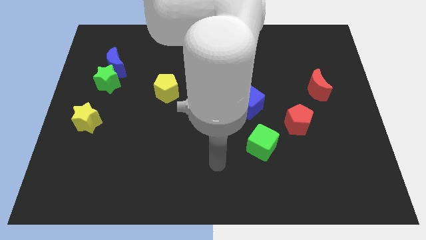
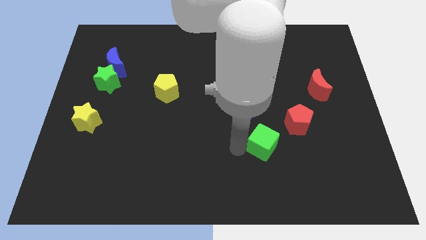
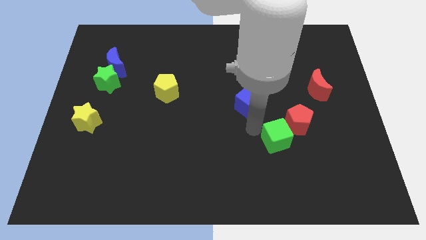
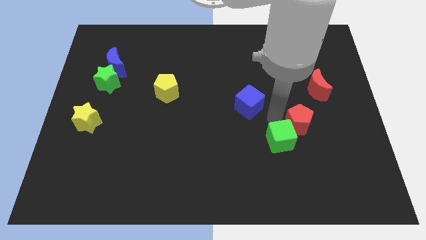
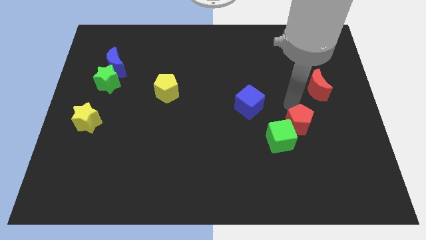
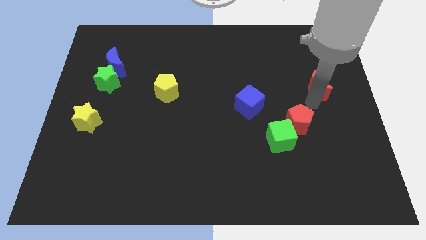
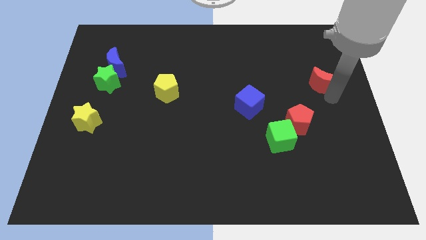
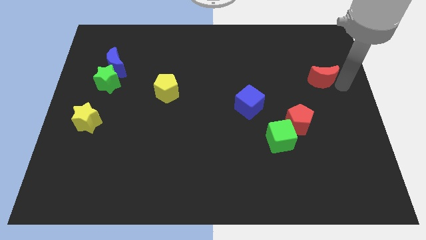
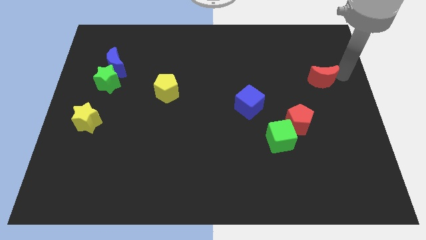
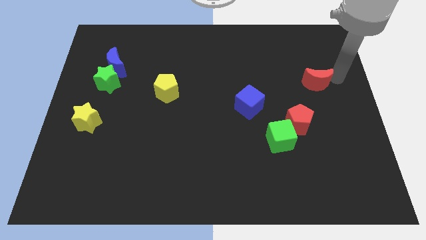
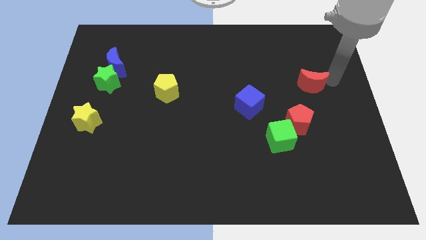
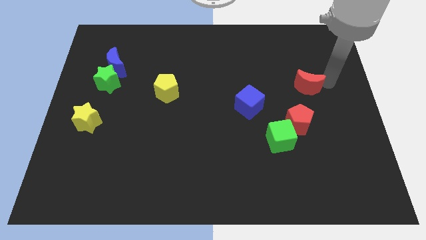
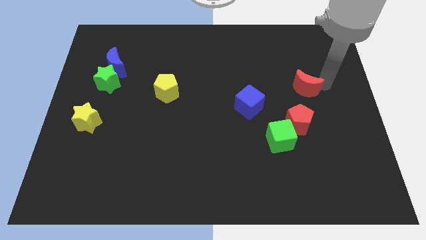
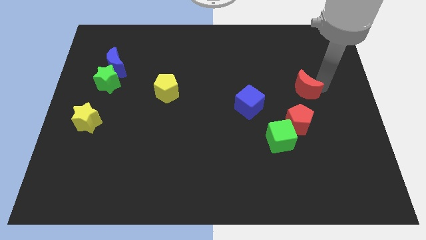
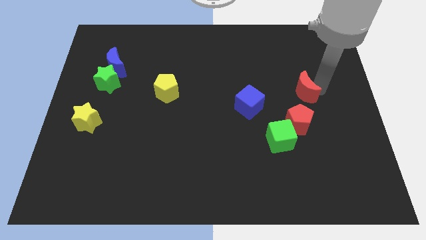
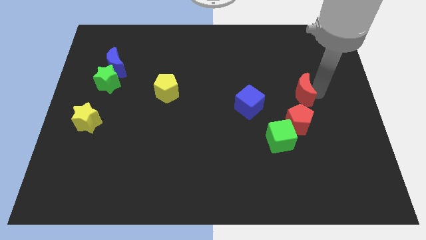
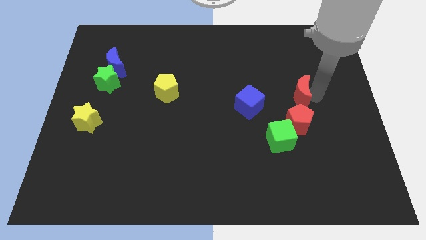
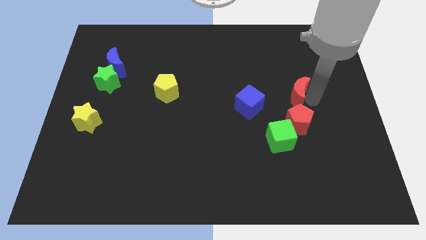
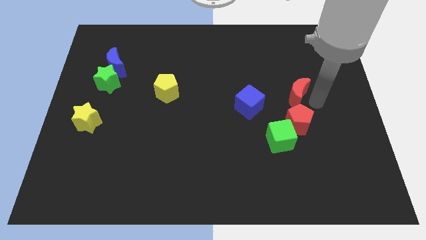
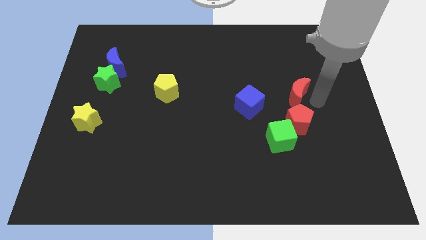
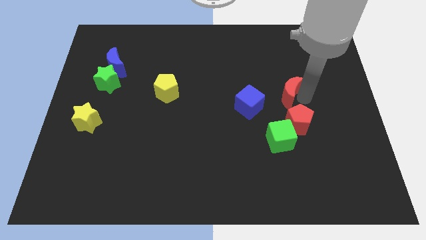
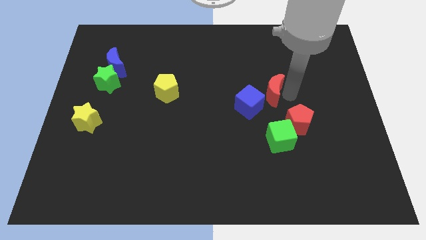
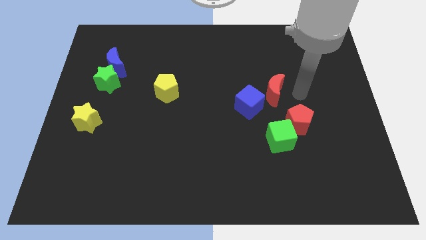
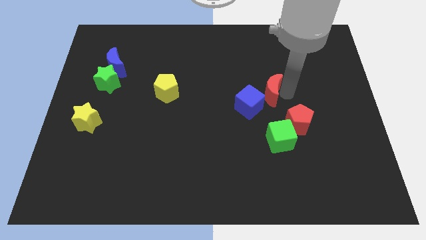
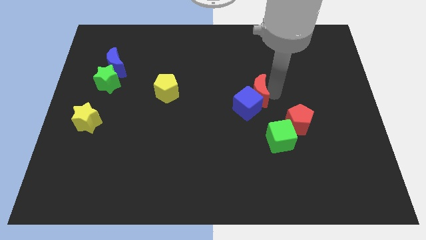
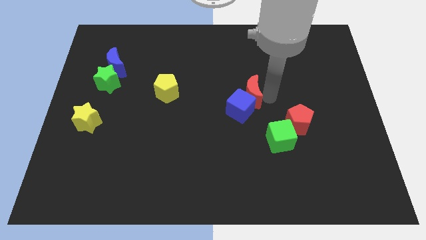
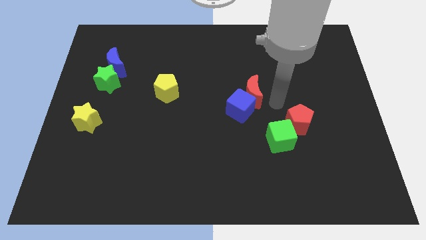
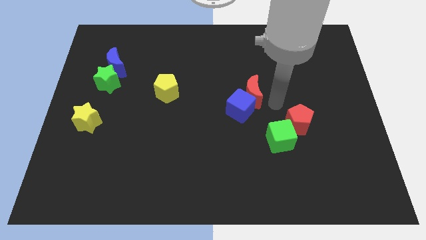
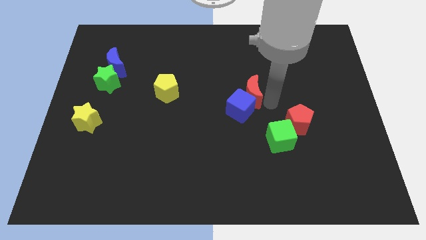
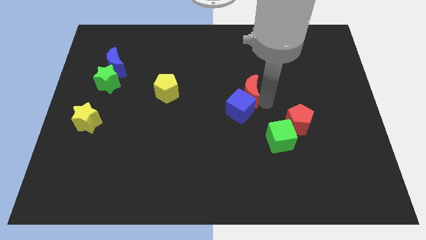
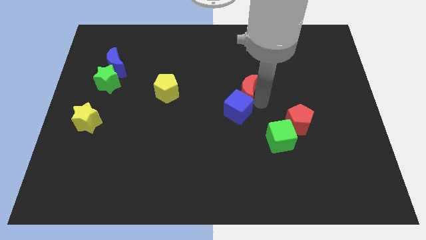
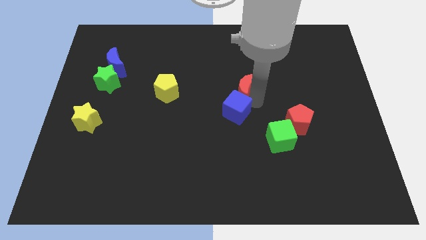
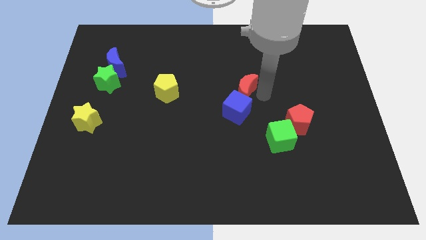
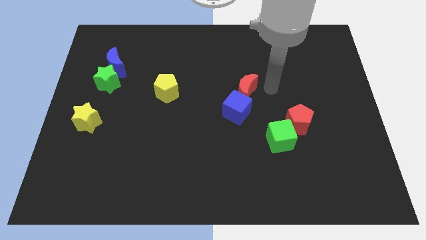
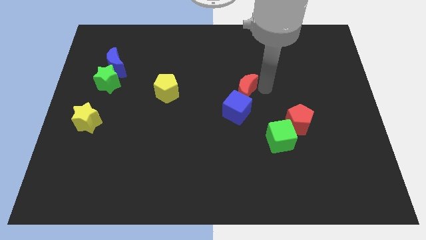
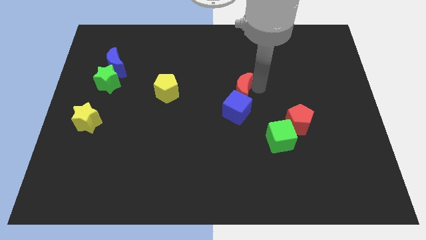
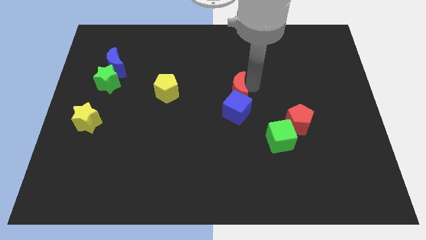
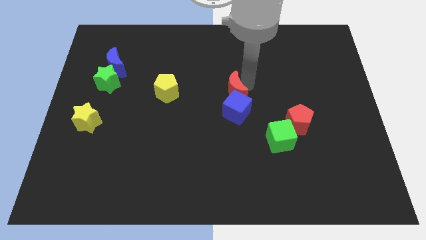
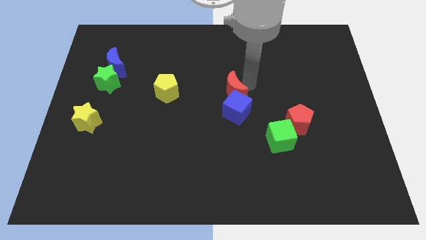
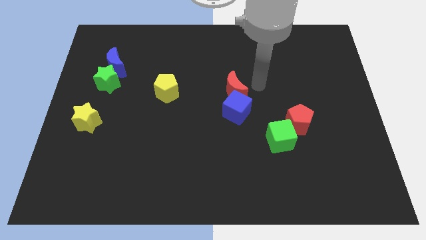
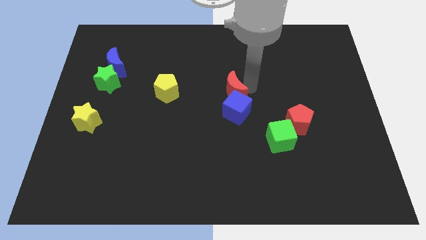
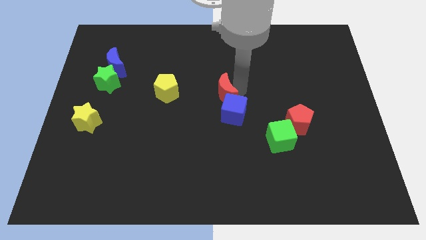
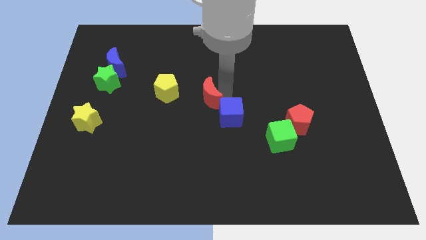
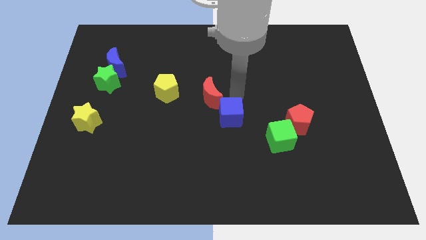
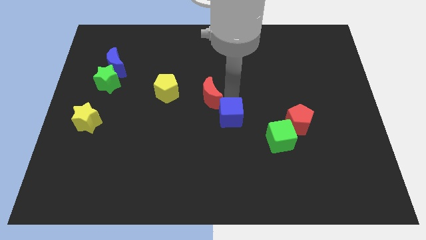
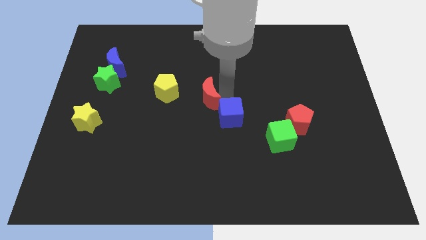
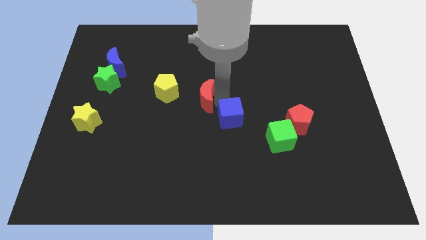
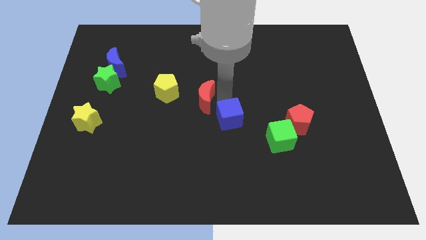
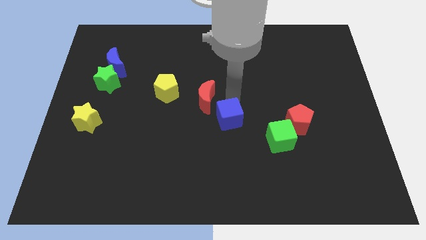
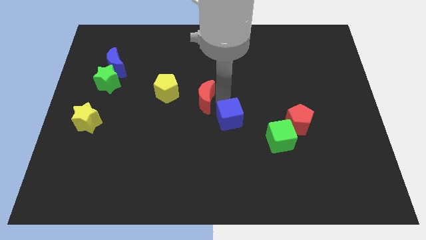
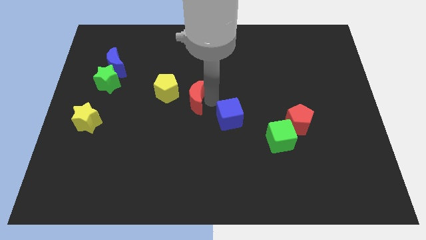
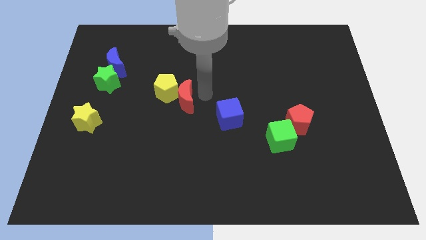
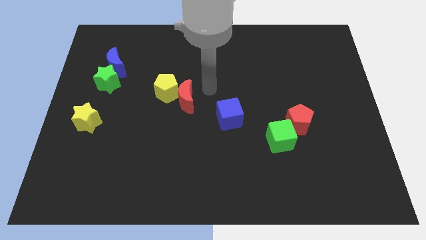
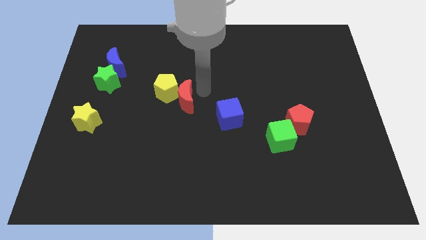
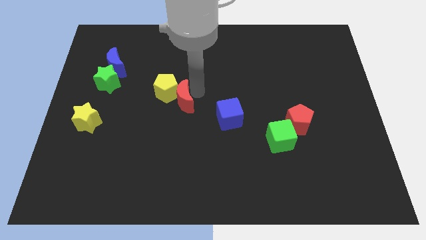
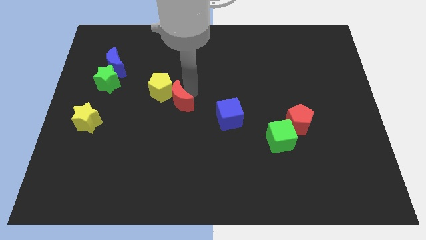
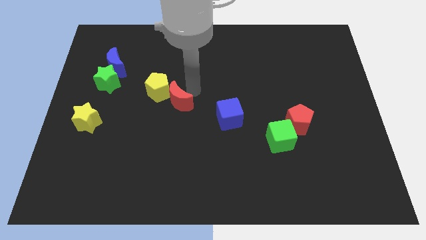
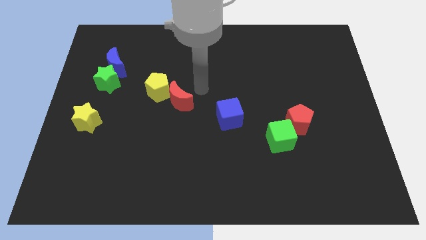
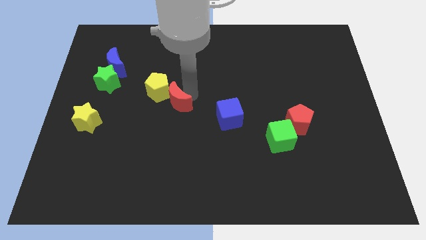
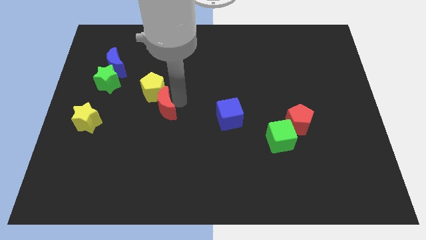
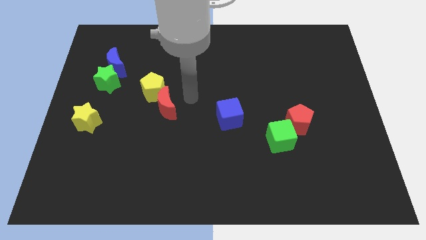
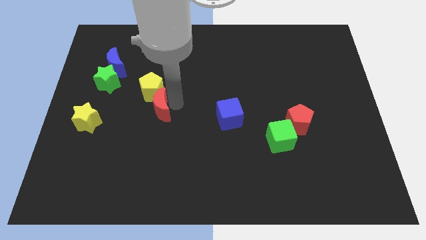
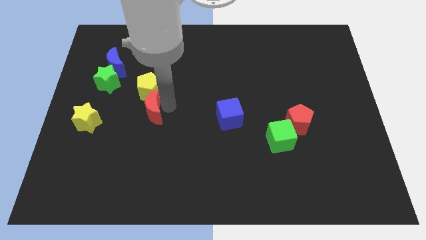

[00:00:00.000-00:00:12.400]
push the red moon right of the yellow star
